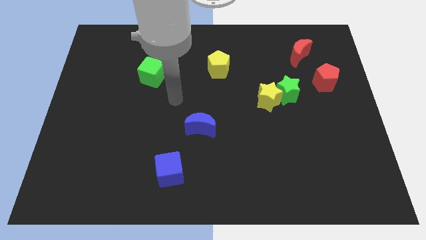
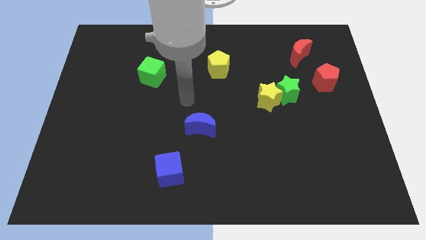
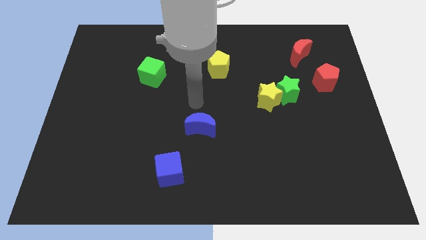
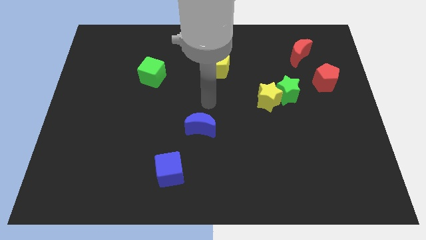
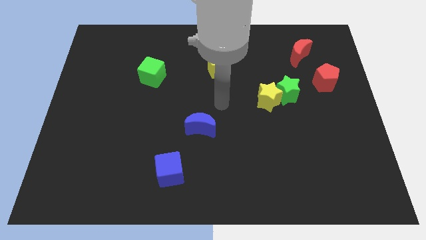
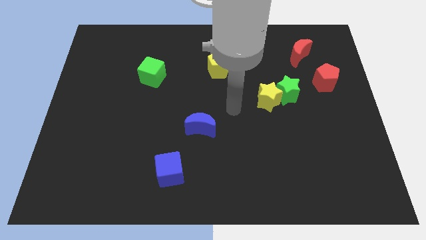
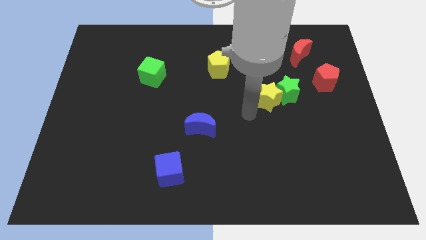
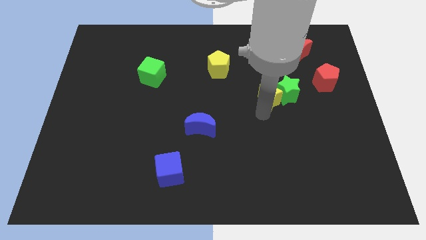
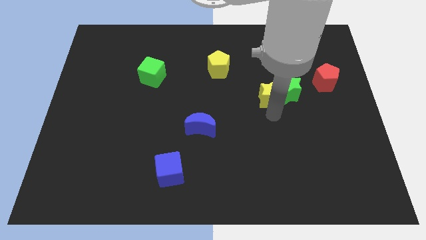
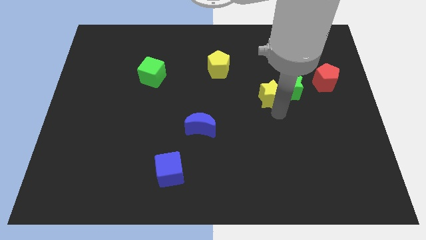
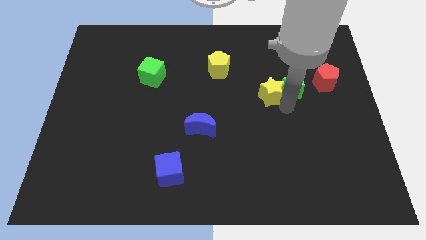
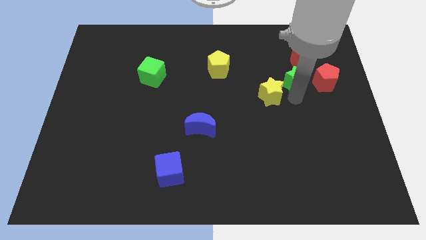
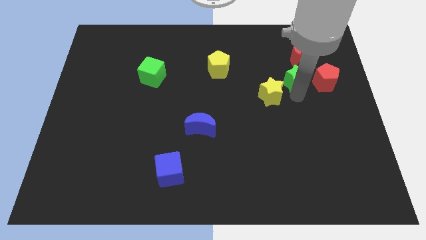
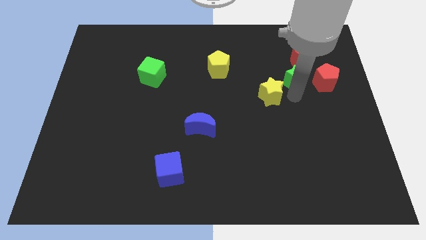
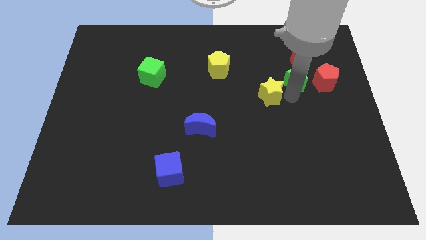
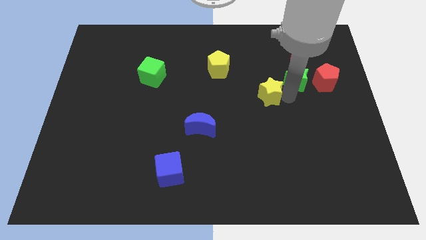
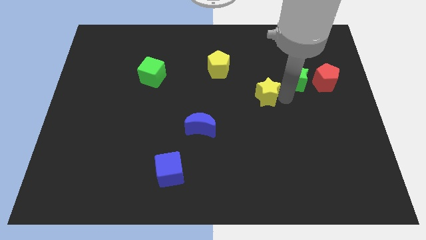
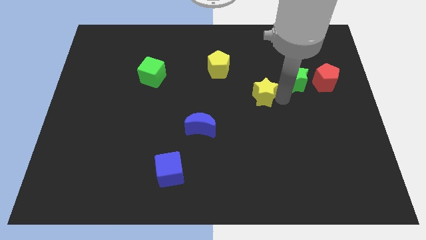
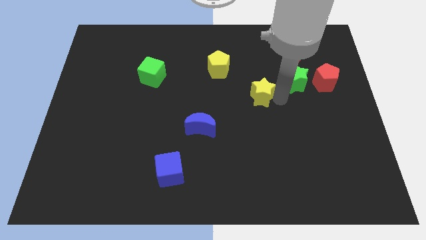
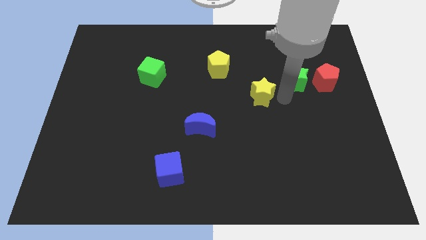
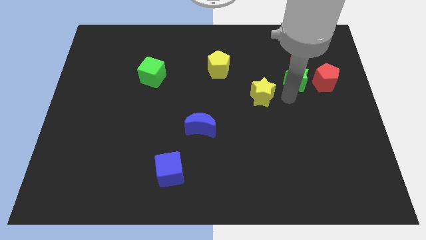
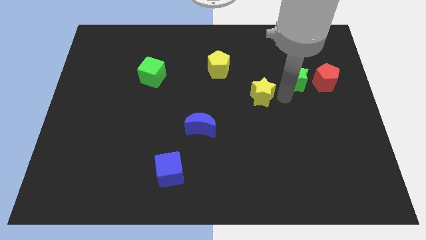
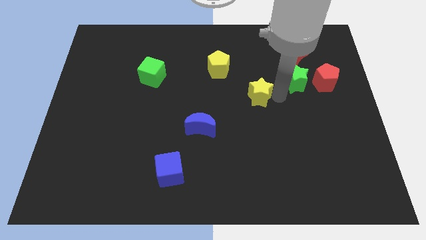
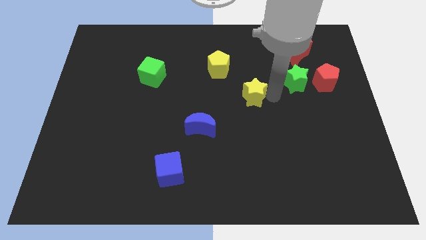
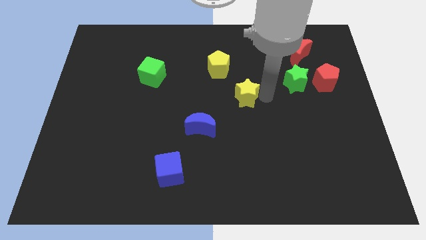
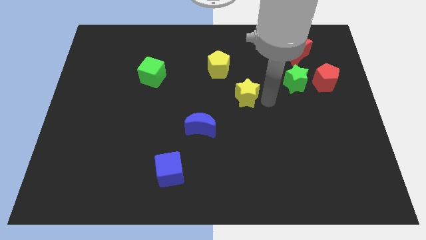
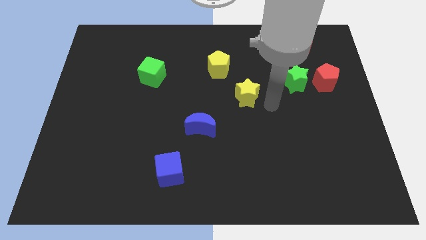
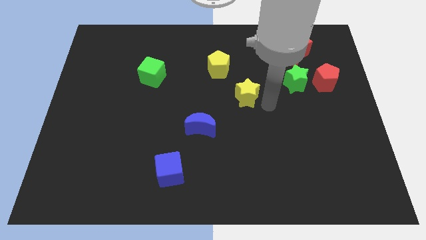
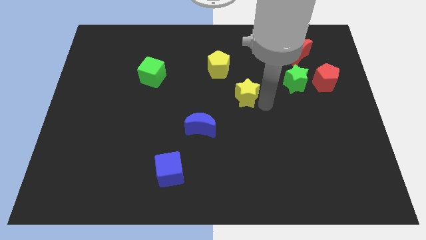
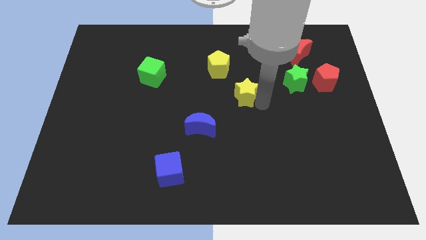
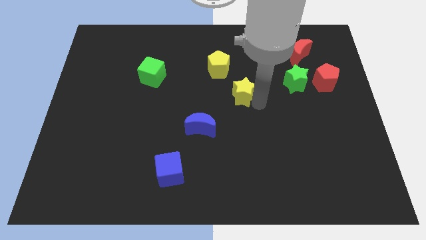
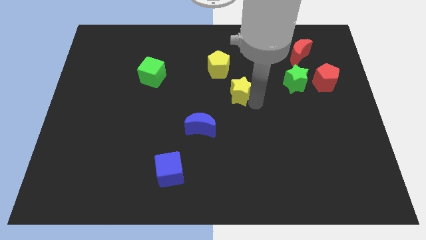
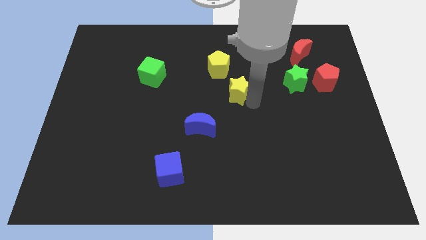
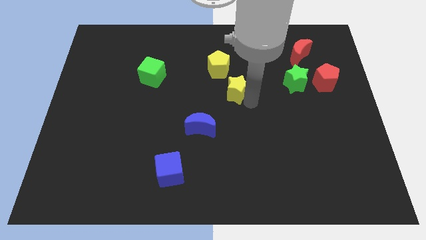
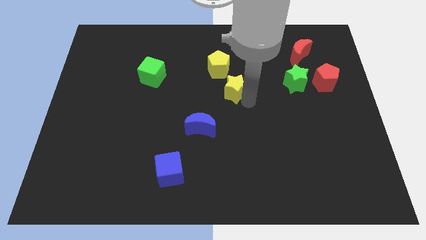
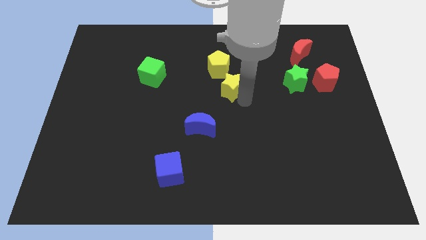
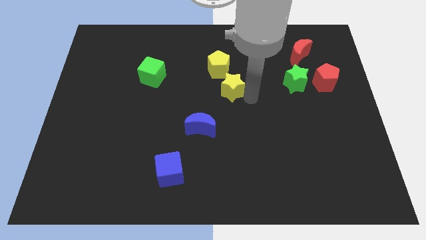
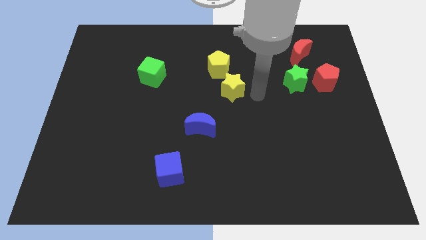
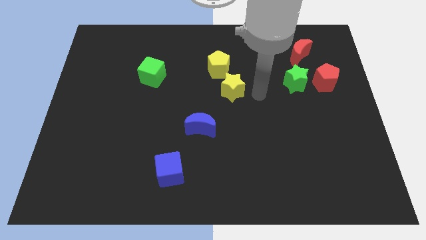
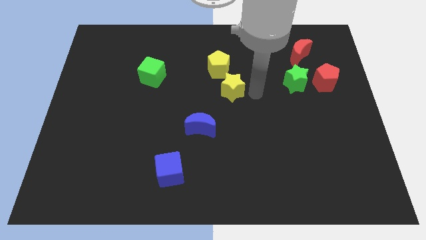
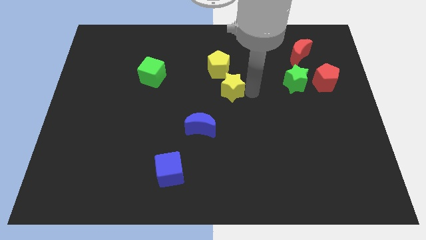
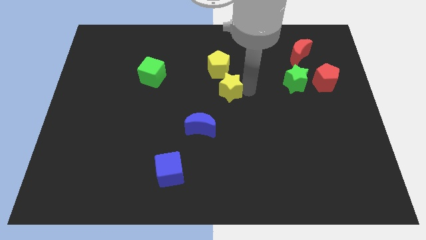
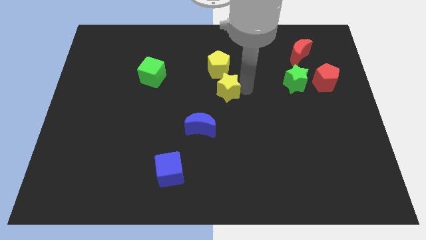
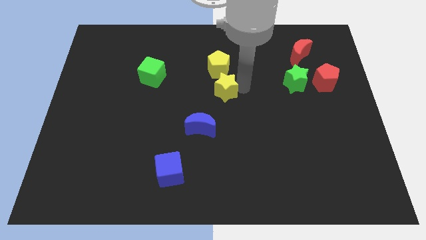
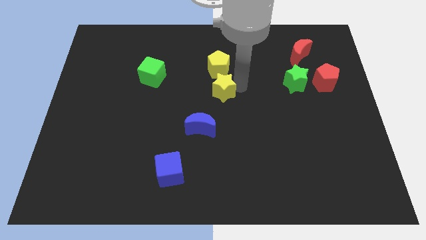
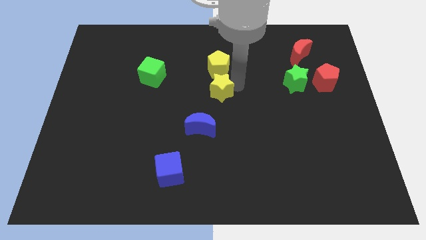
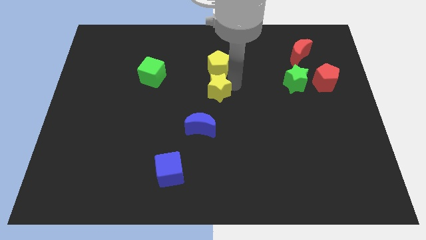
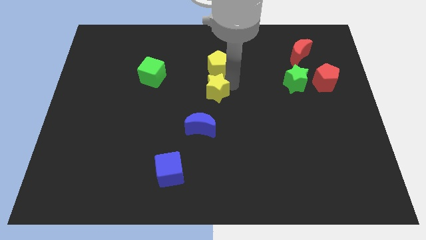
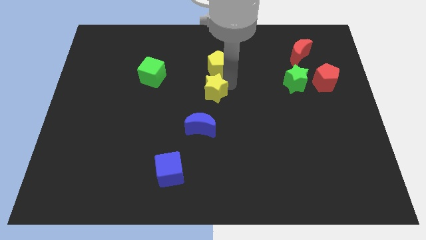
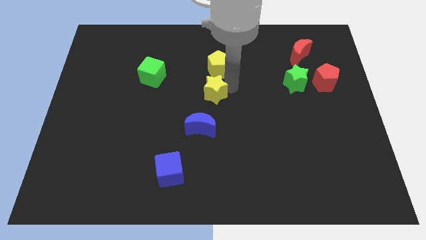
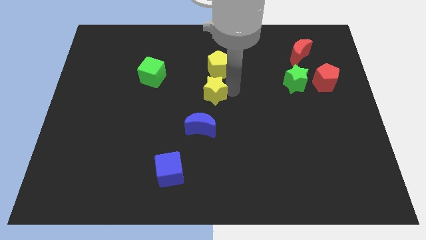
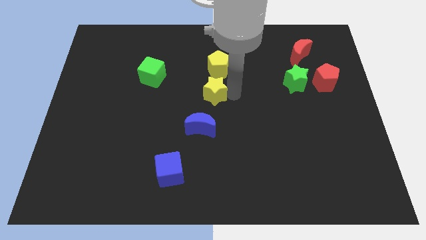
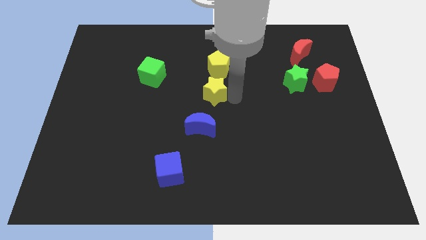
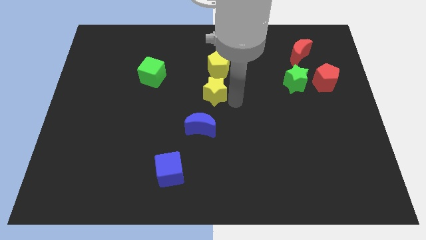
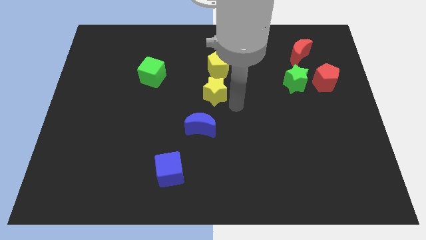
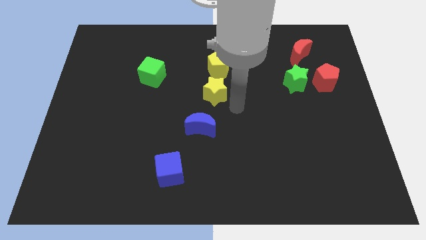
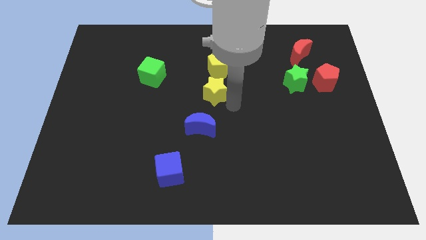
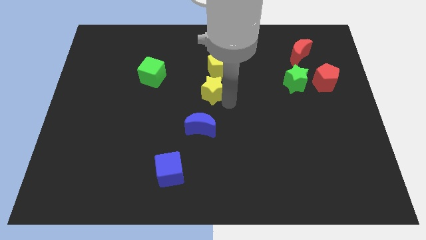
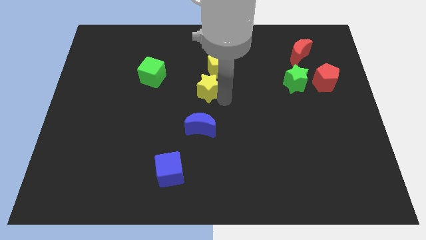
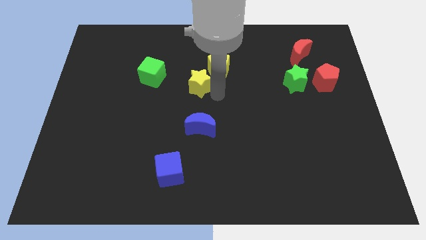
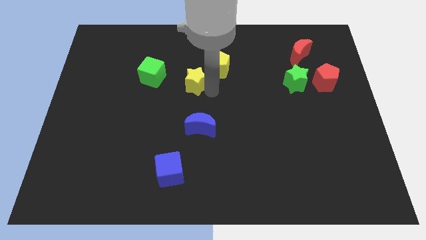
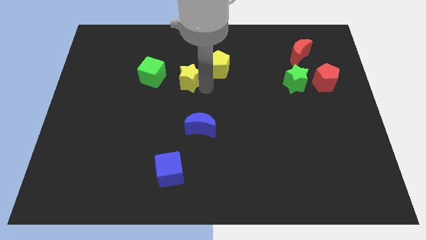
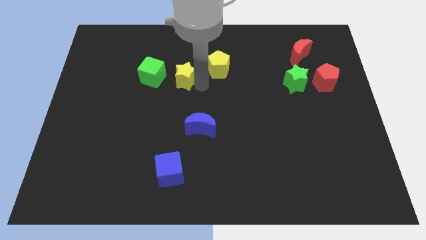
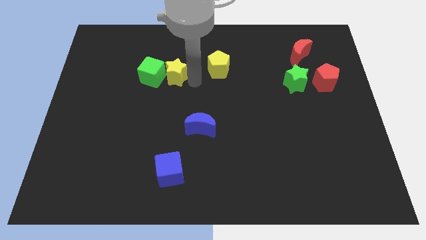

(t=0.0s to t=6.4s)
put the yellow star to the green cube

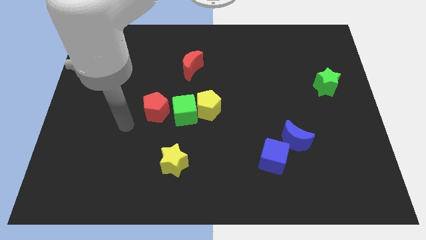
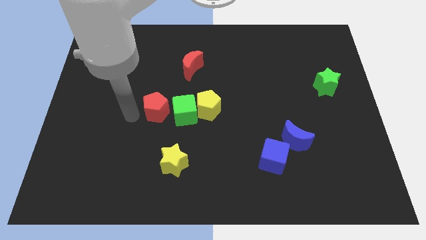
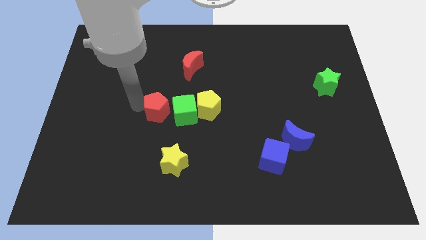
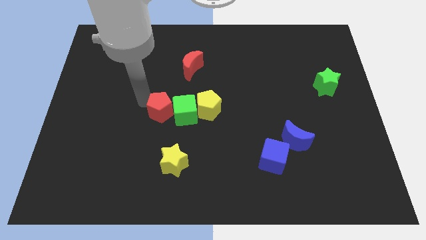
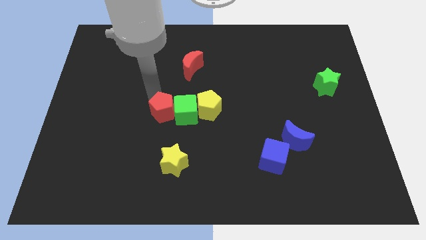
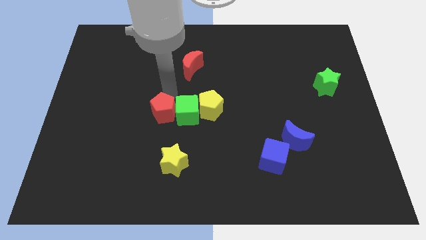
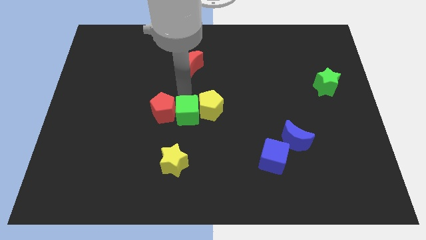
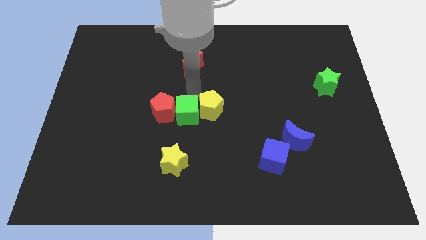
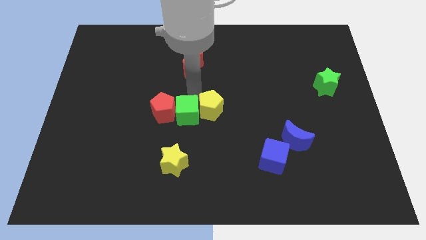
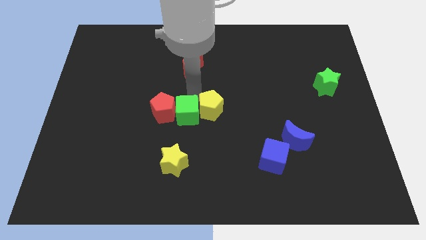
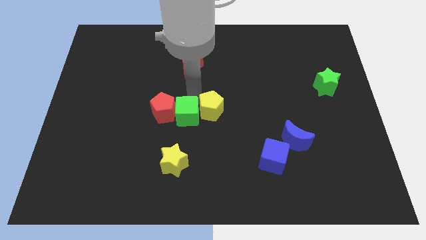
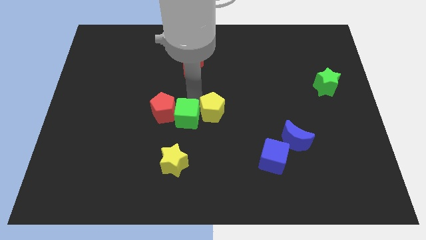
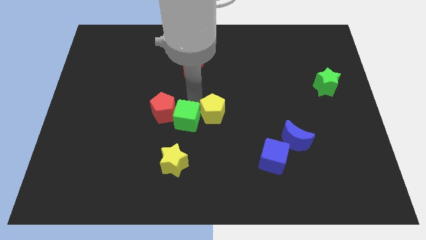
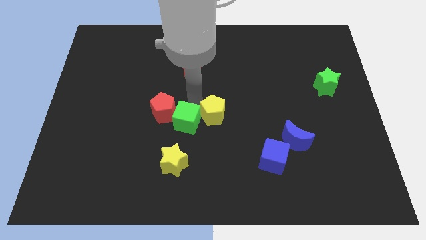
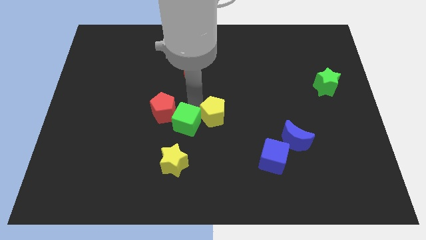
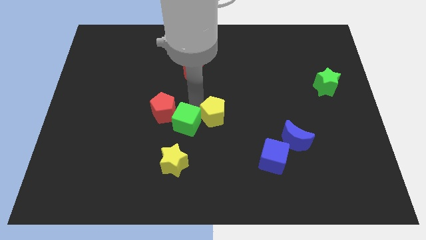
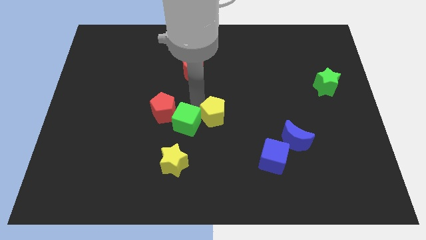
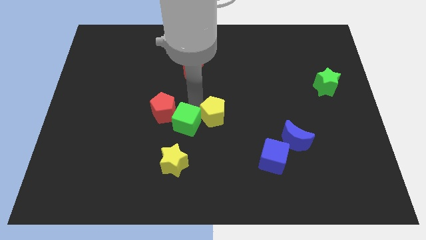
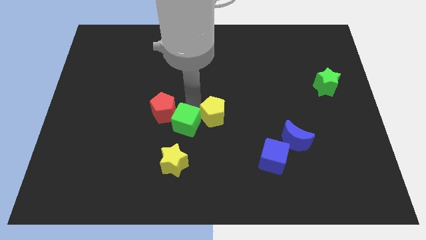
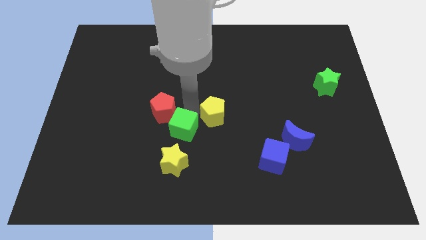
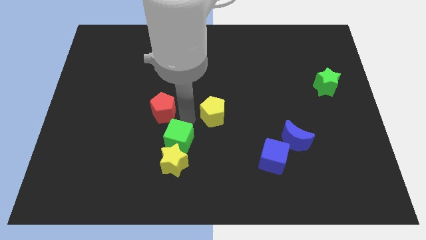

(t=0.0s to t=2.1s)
push the green cube towards the yellow star
